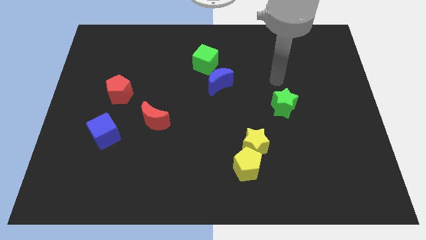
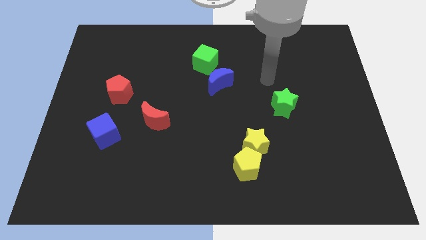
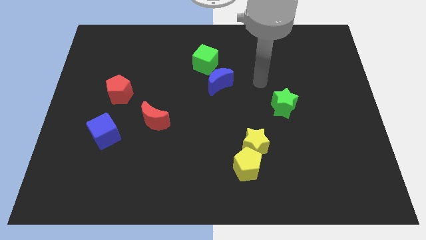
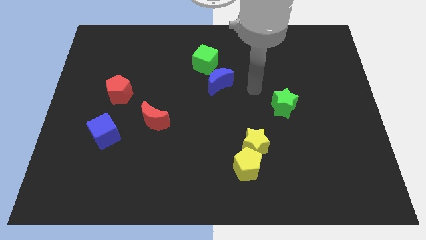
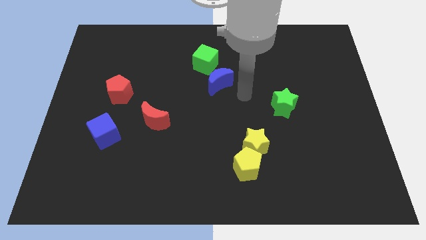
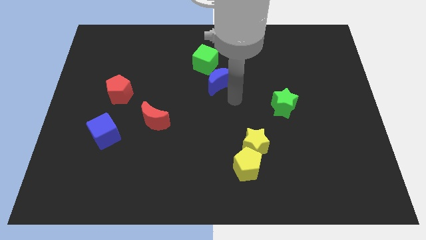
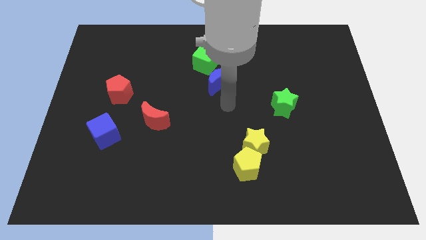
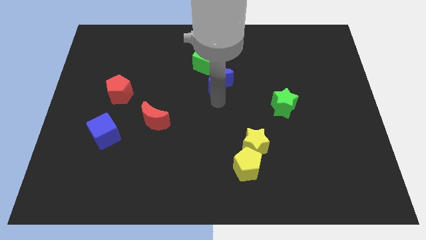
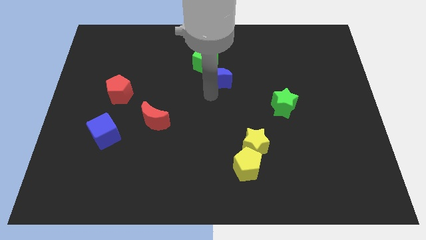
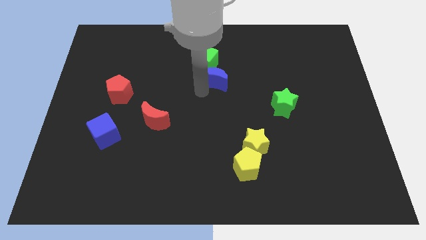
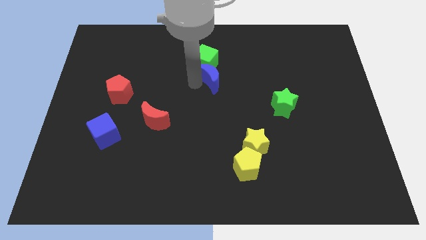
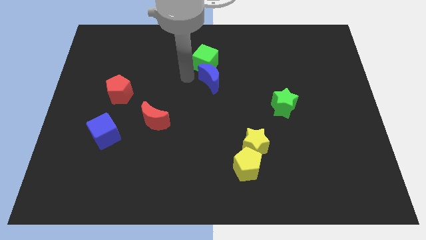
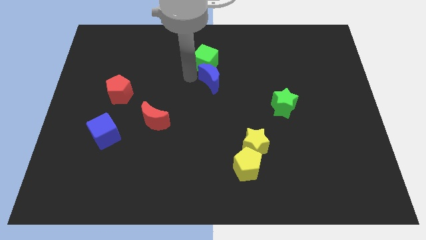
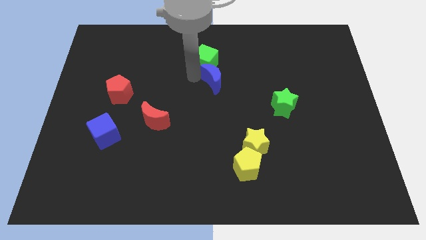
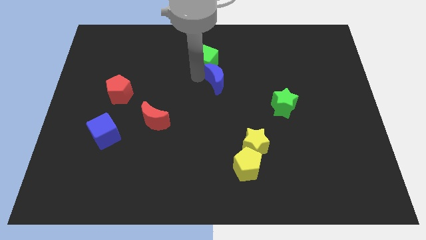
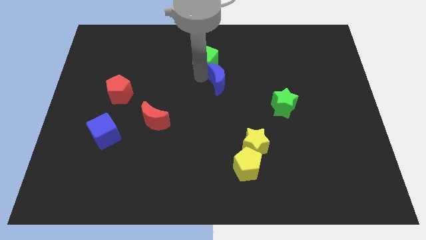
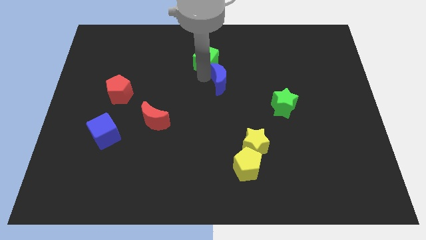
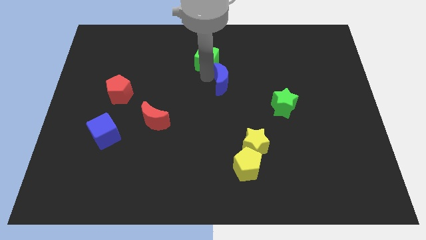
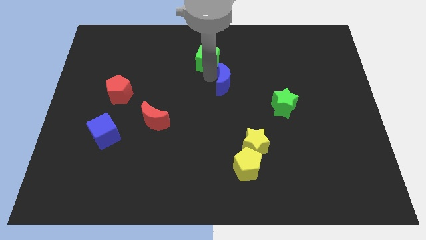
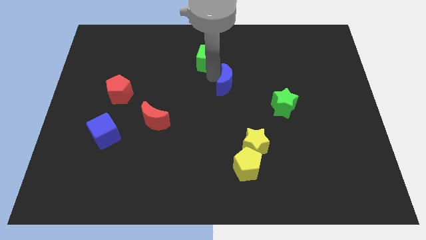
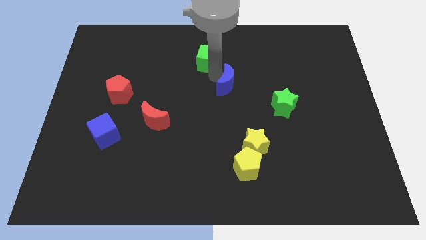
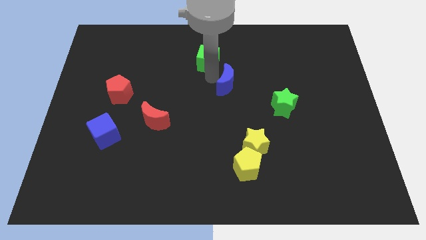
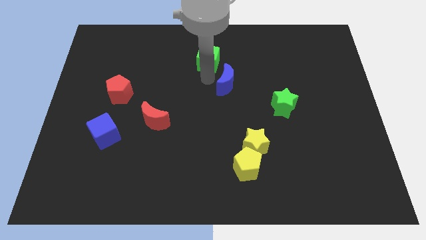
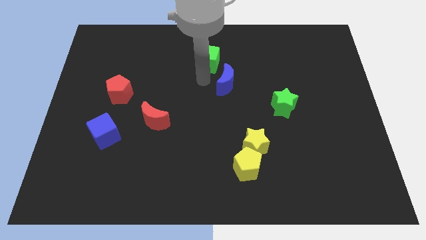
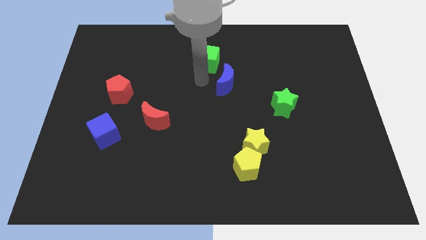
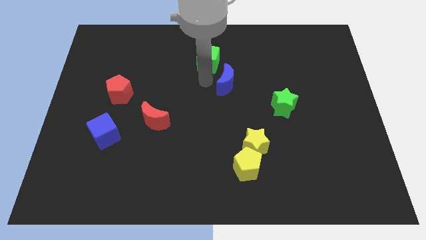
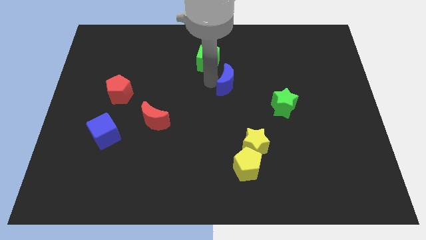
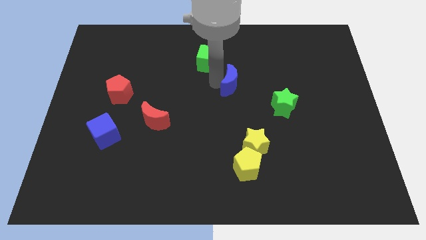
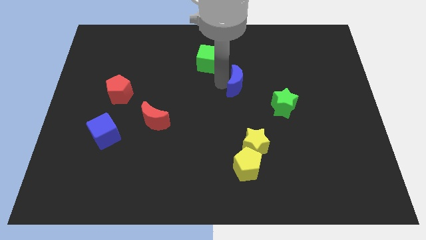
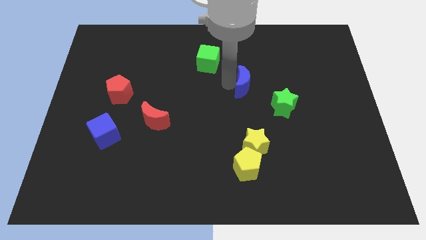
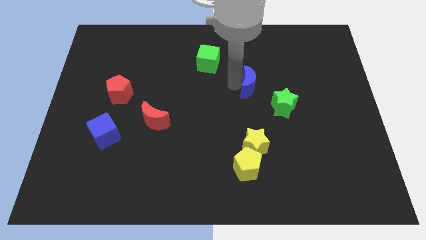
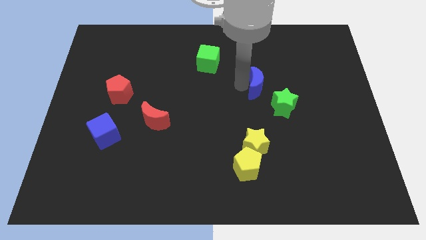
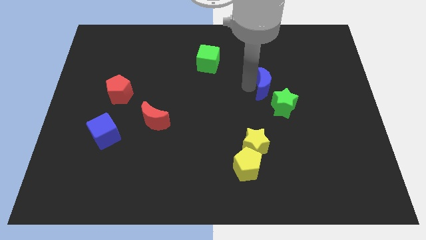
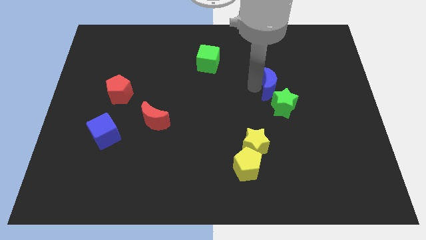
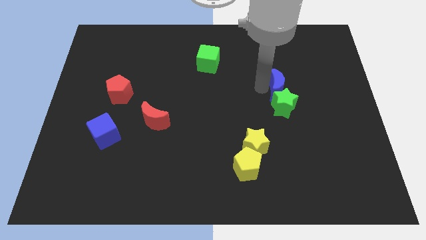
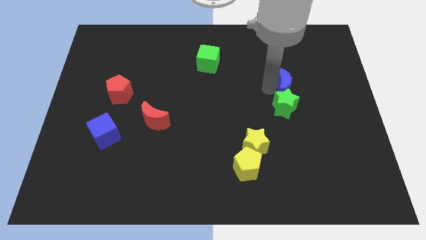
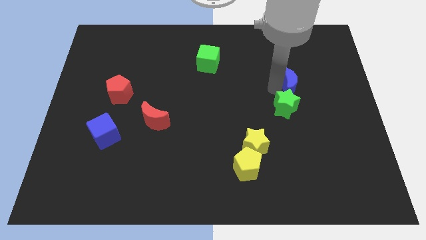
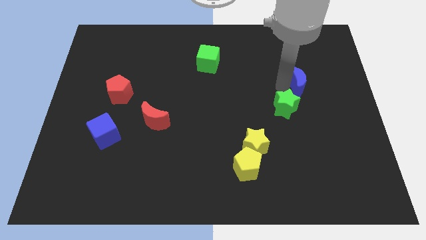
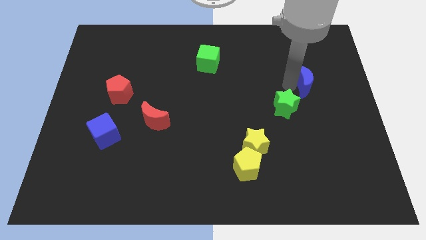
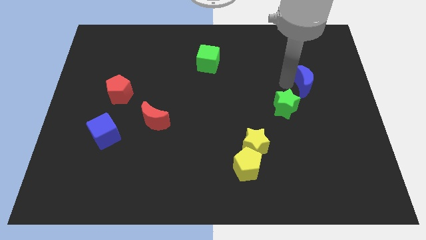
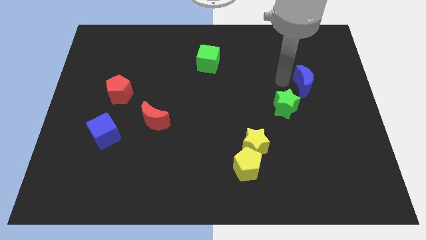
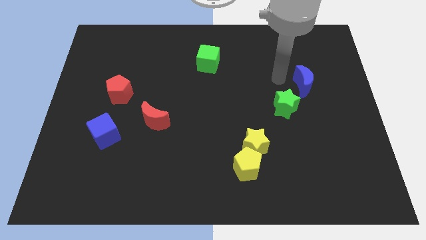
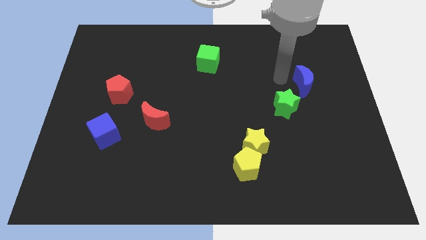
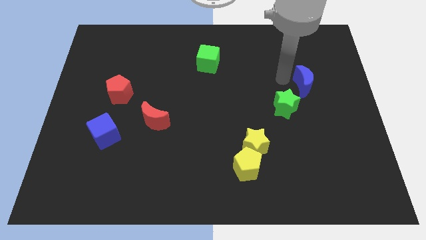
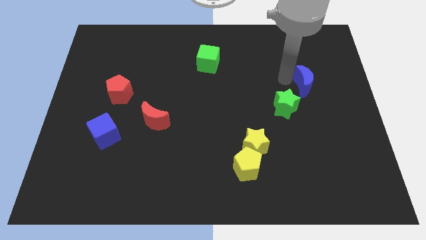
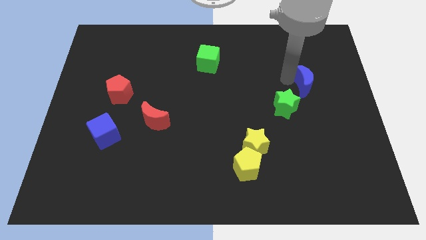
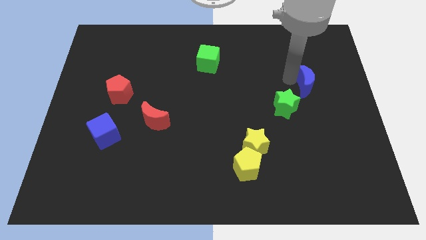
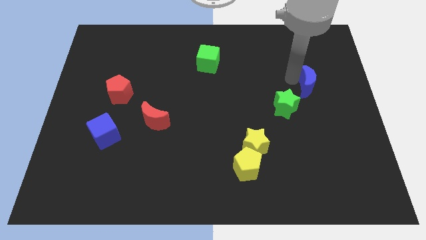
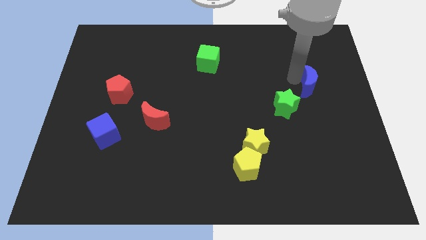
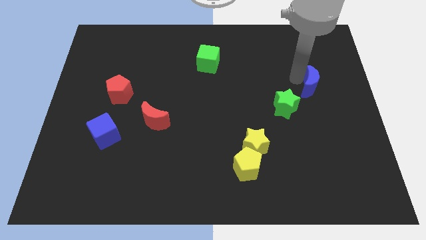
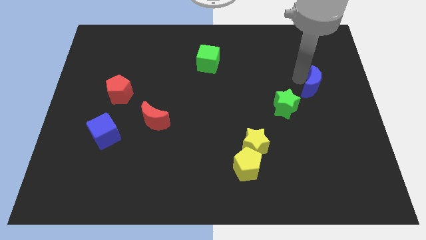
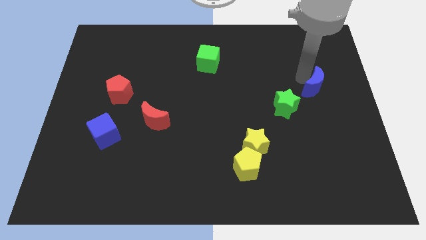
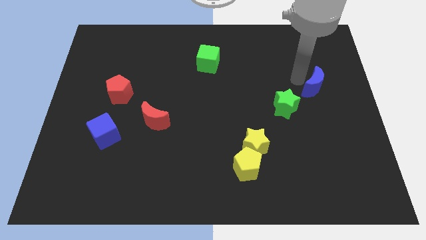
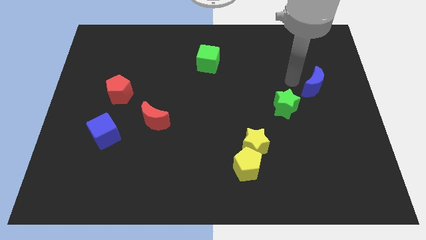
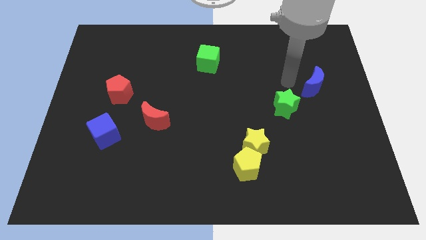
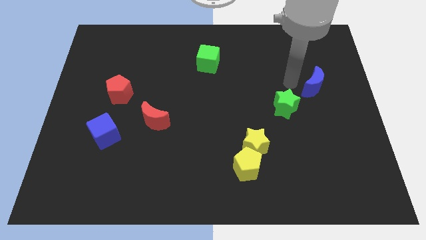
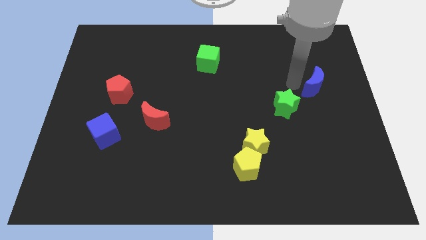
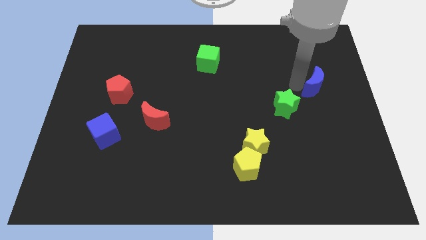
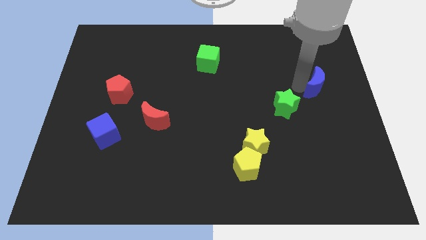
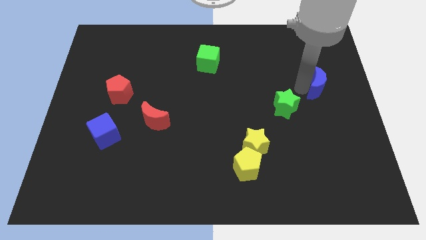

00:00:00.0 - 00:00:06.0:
move the blue moon to the right side of the board

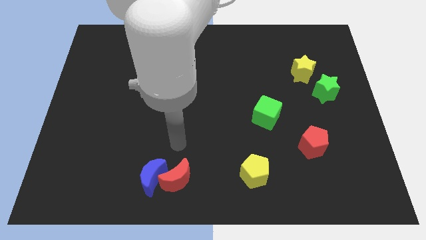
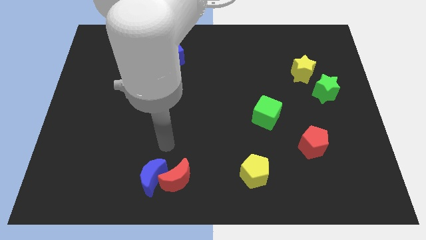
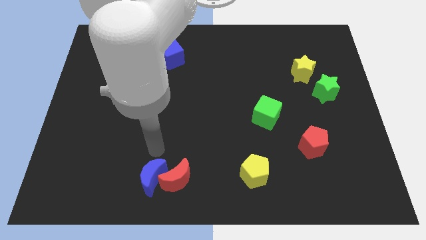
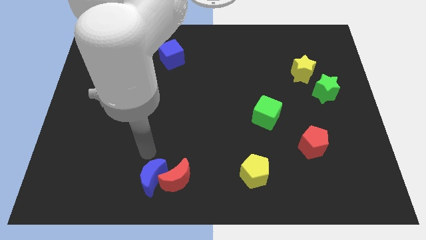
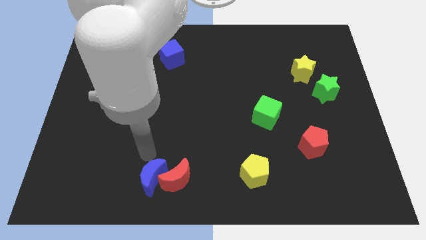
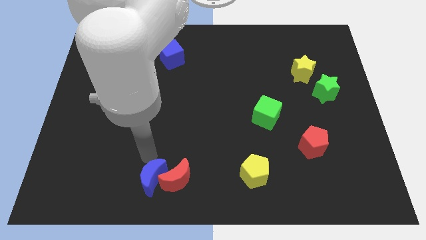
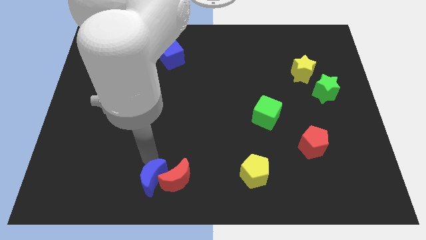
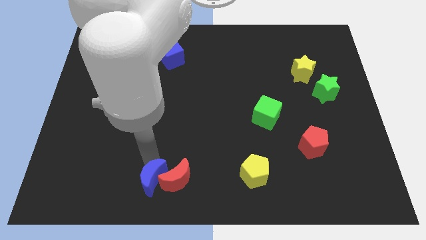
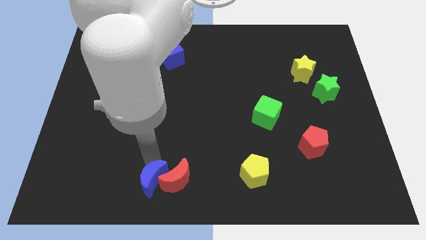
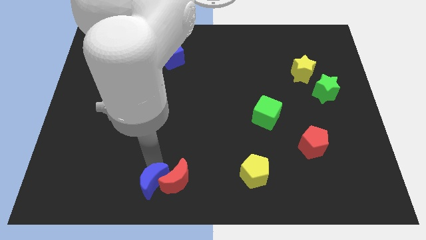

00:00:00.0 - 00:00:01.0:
put the blue moon to the bottom
